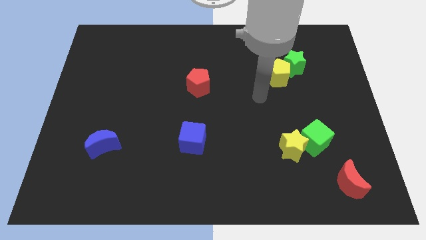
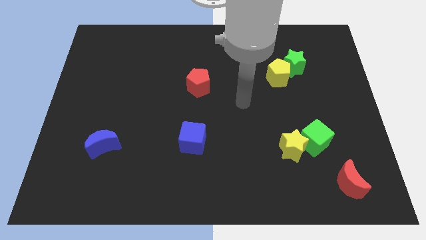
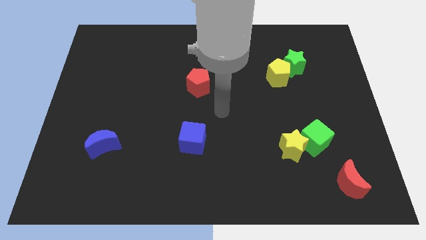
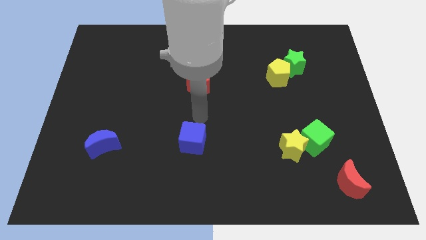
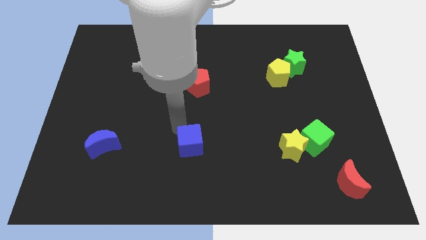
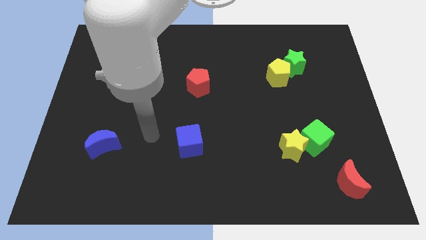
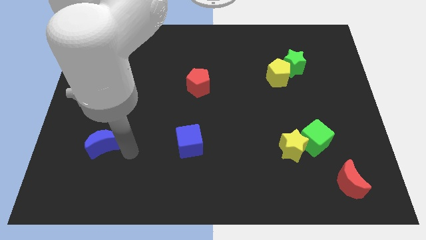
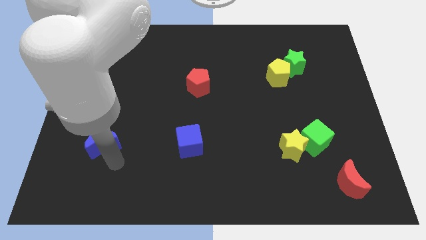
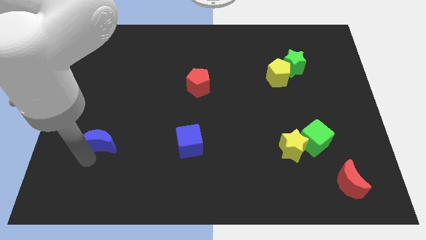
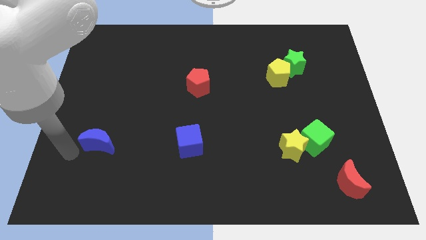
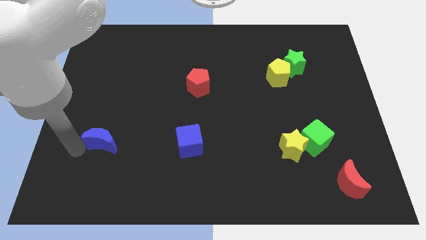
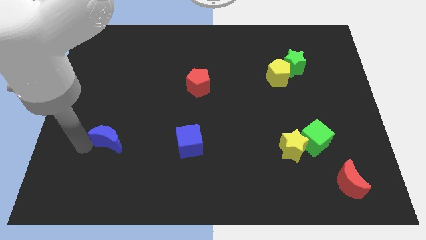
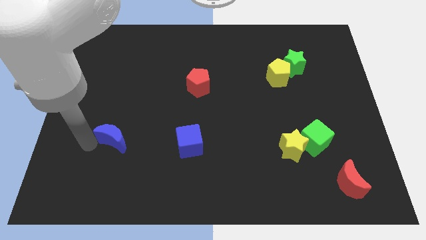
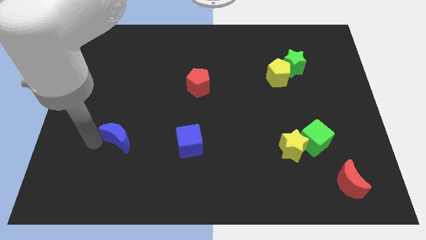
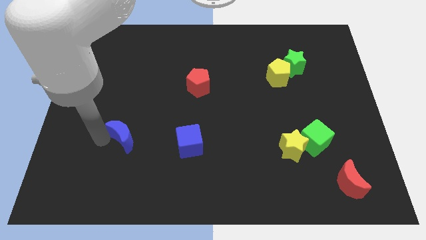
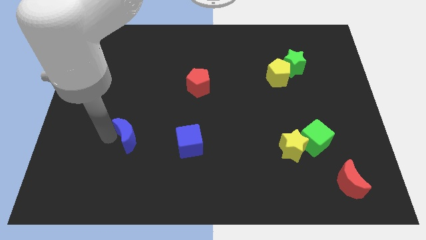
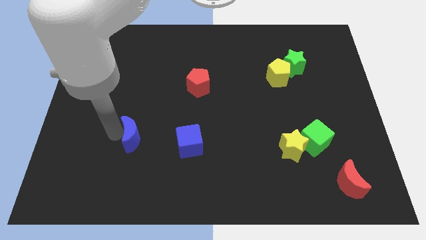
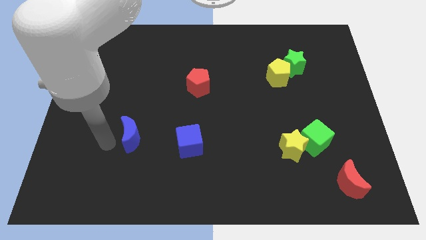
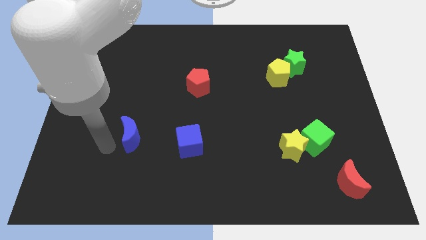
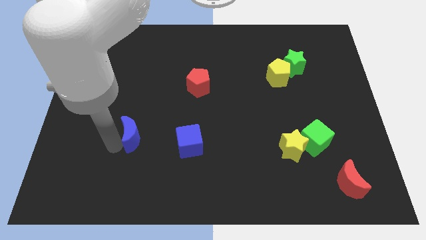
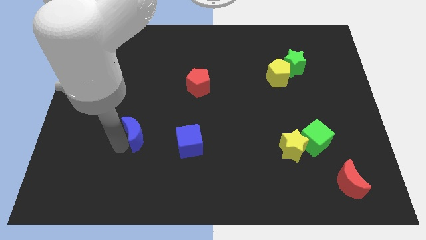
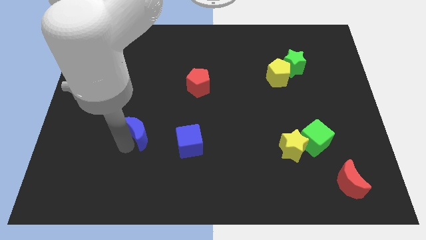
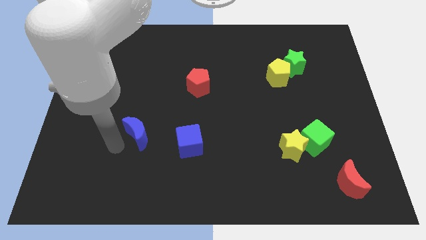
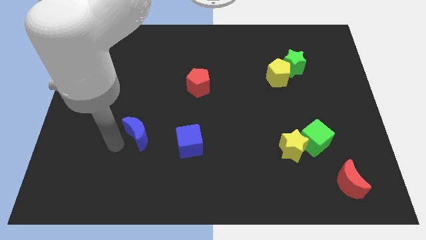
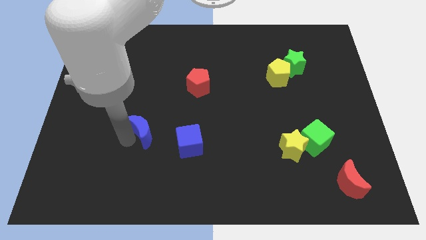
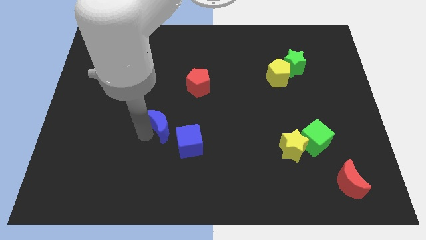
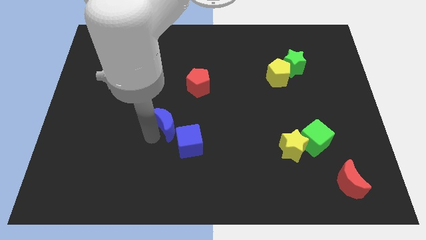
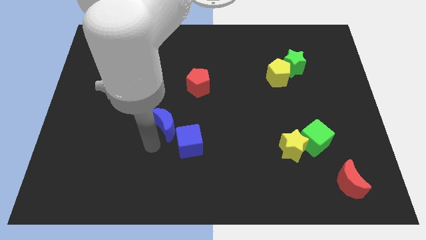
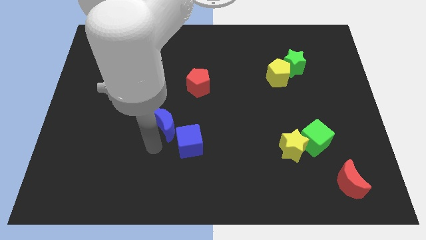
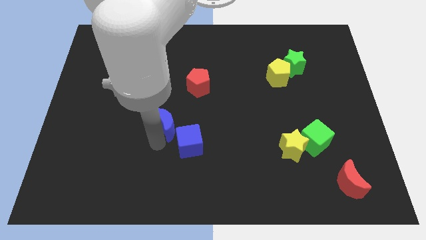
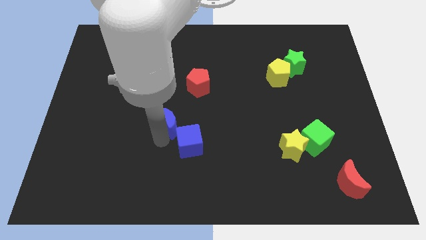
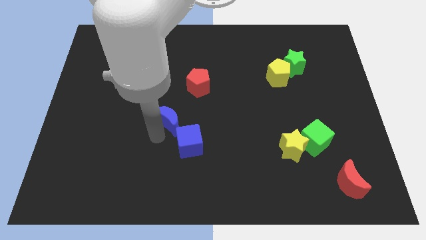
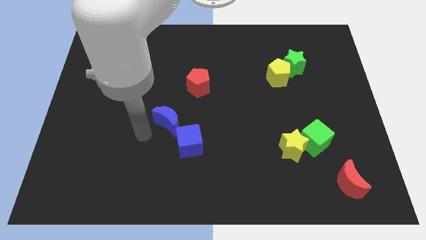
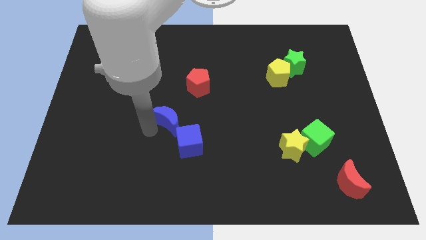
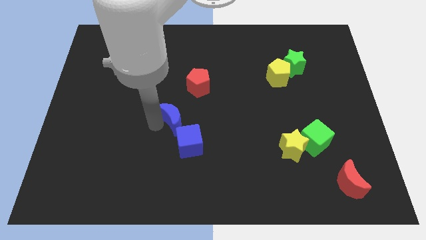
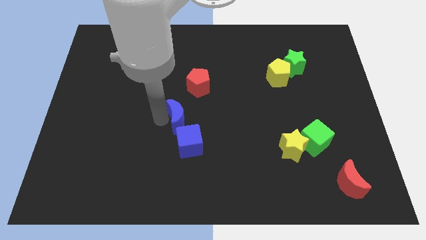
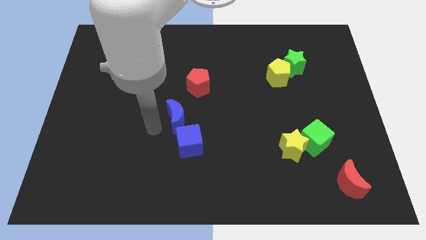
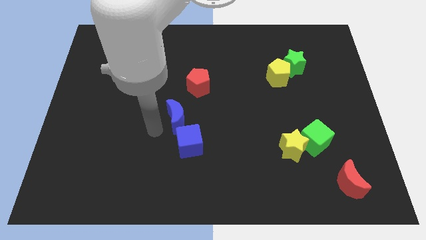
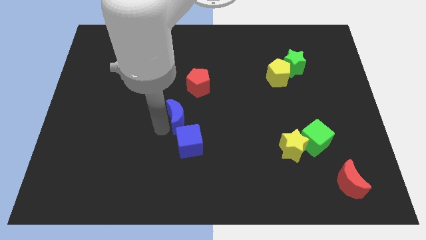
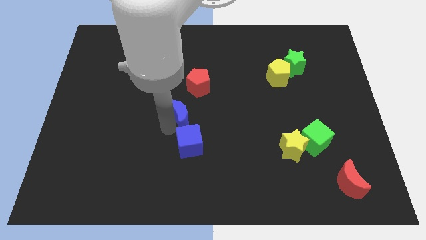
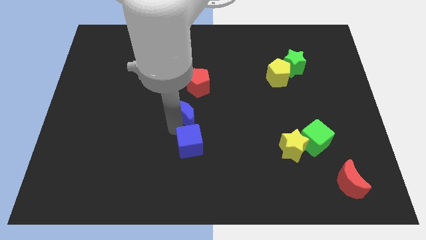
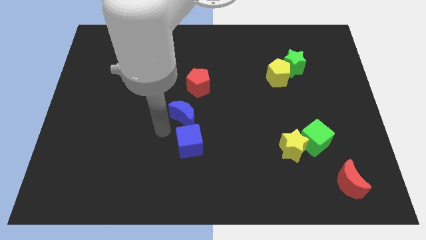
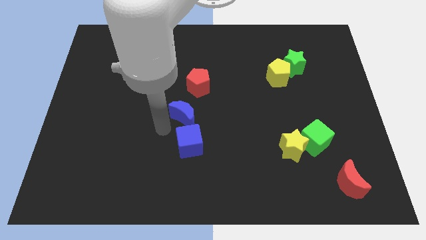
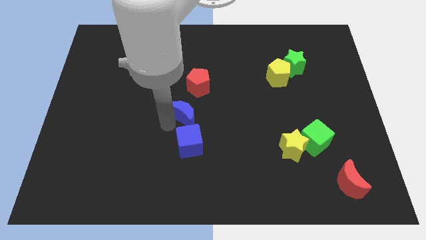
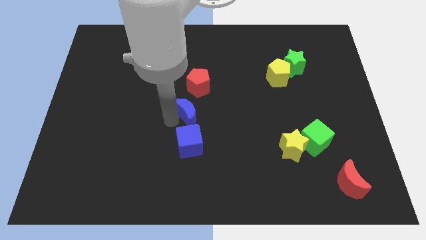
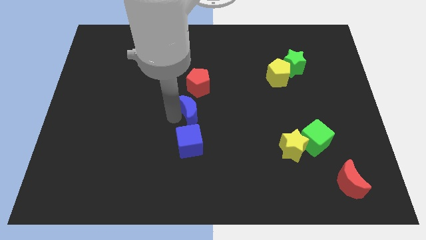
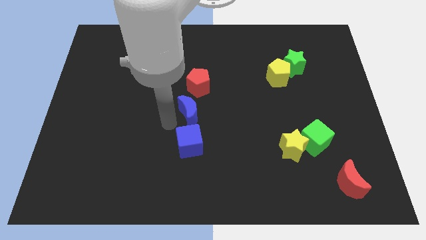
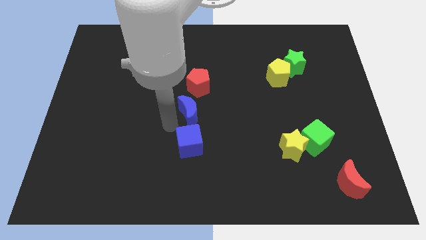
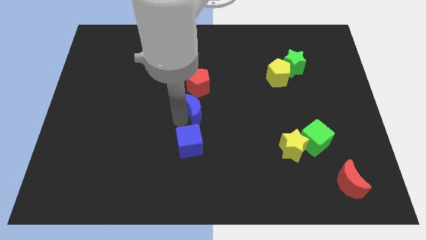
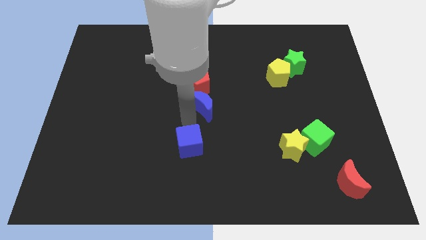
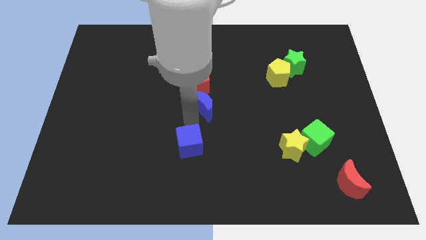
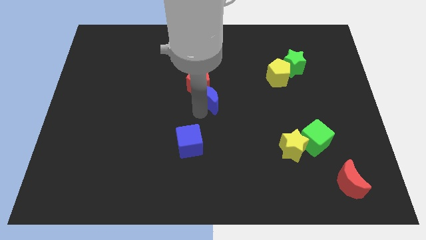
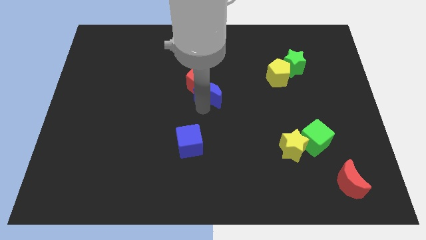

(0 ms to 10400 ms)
move the blue moon to the right side of the red pentagon

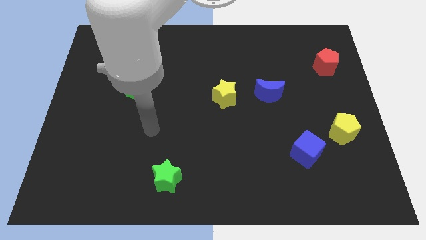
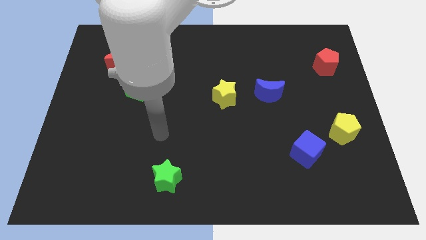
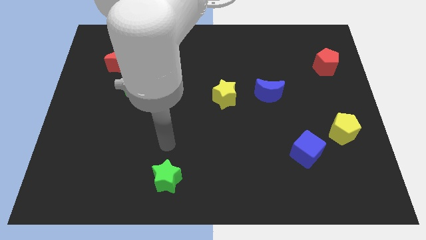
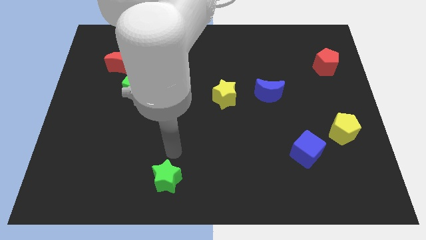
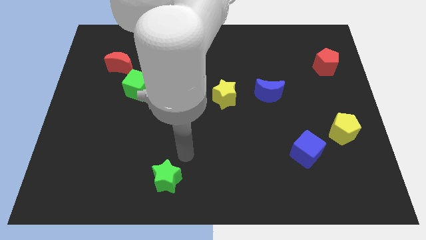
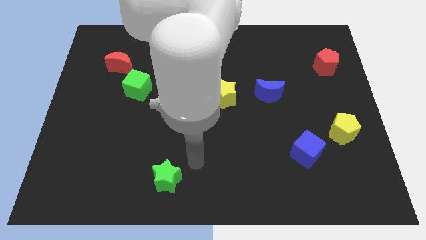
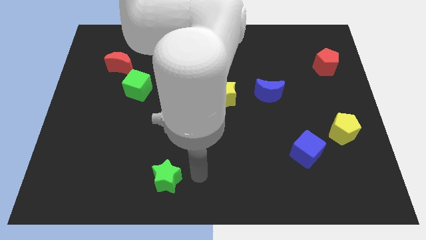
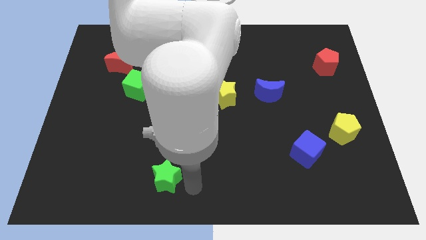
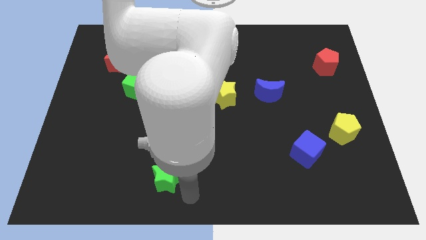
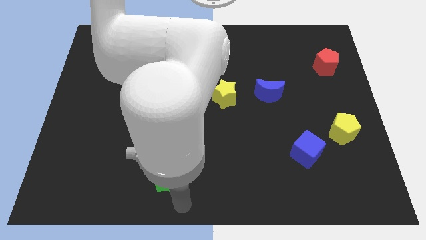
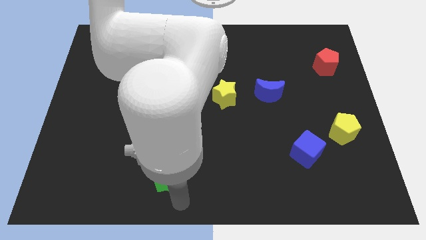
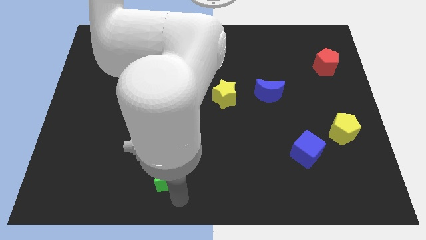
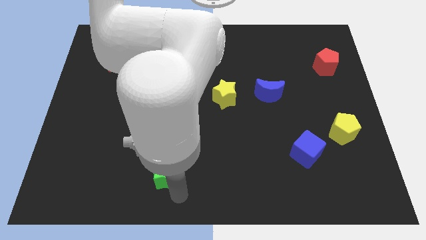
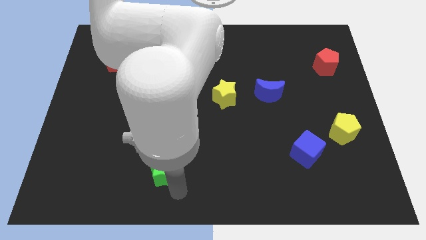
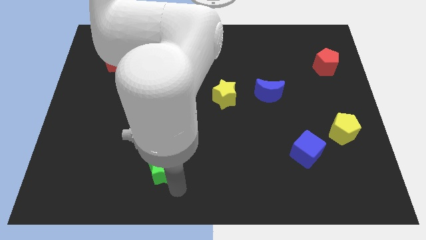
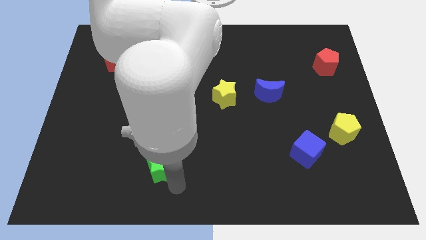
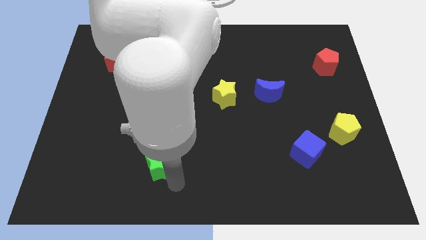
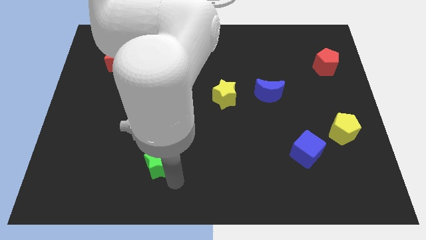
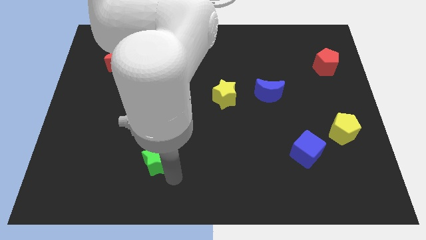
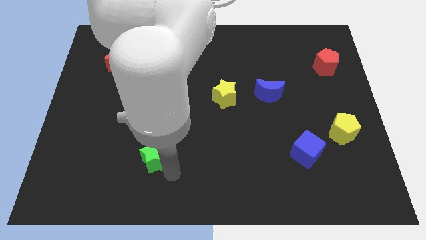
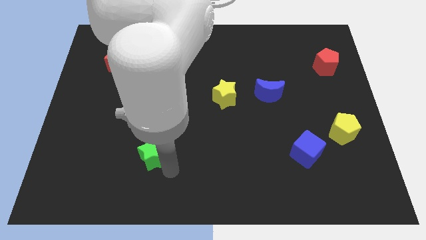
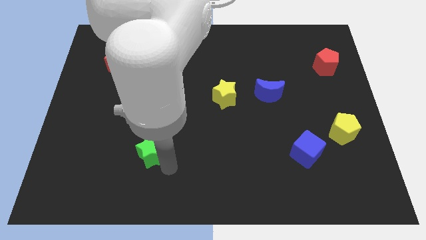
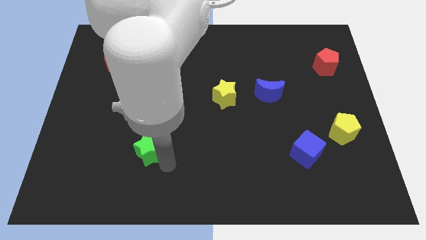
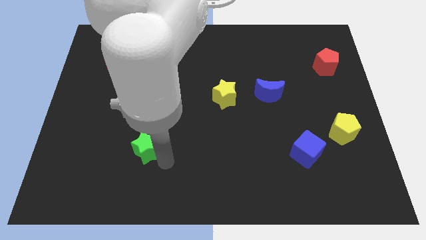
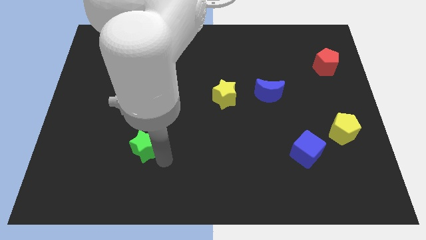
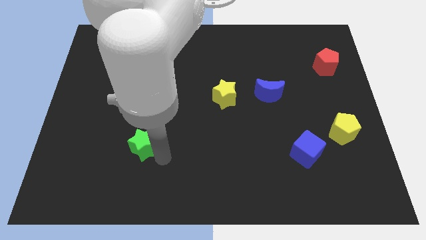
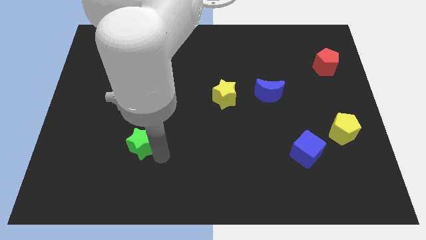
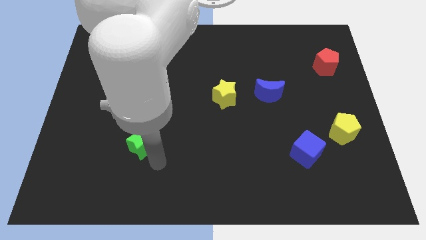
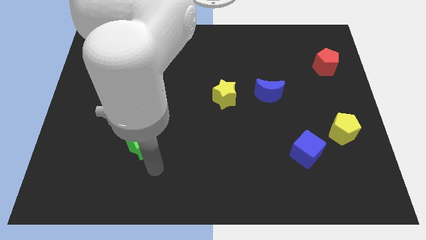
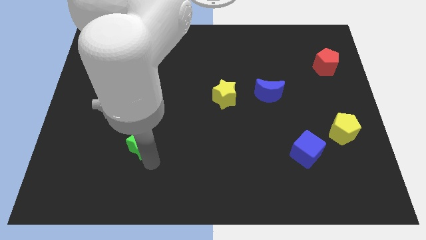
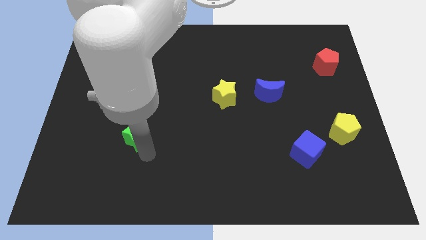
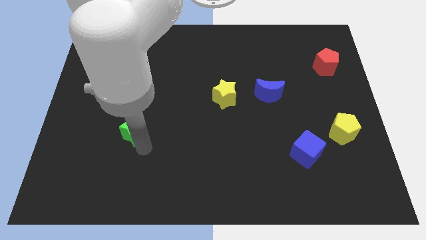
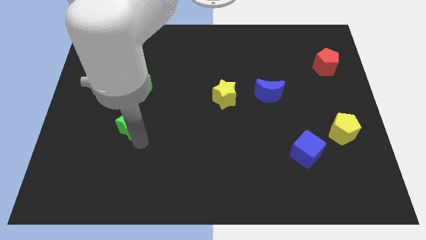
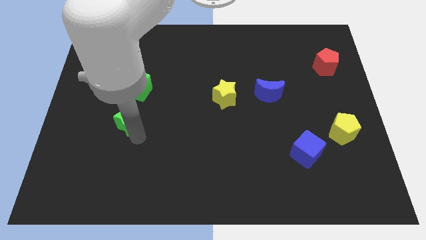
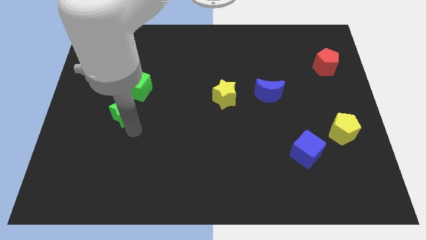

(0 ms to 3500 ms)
push the green star to the bottom of the red moon
